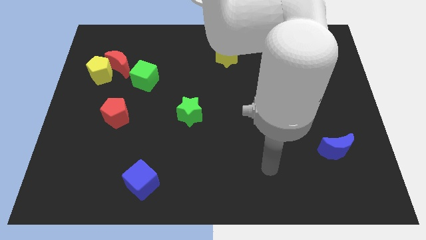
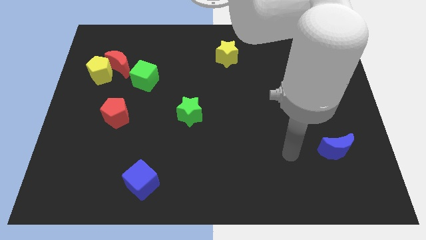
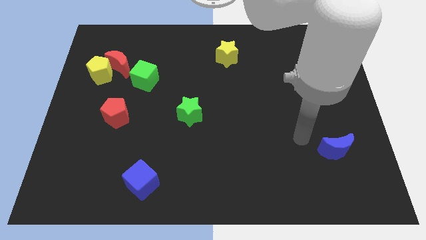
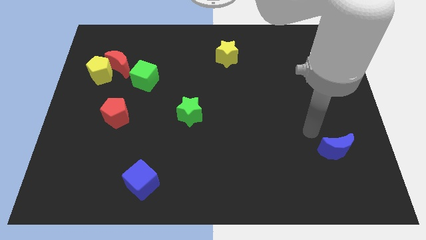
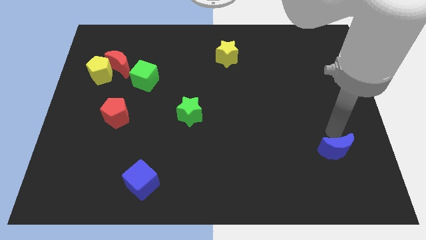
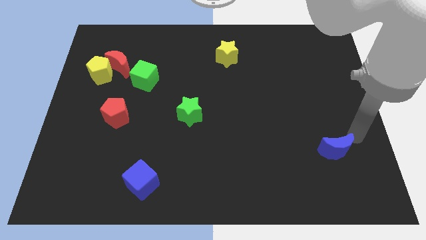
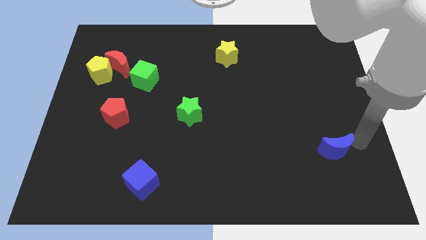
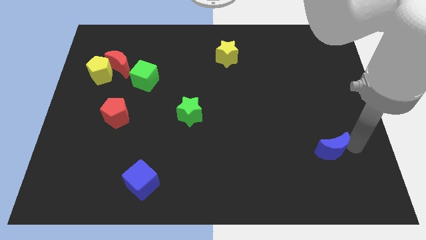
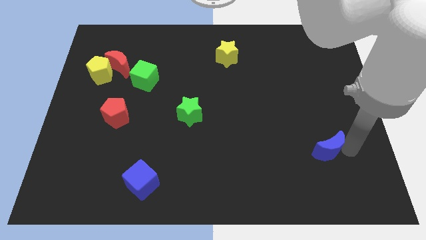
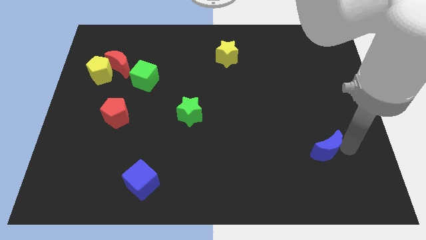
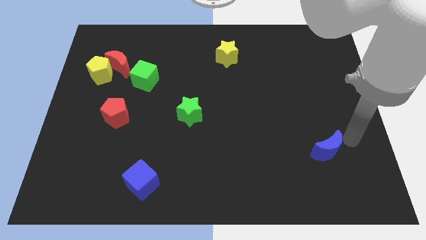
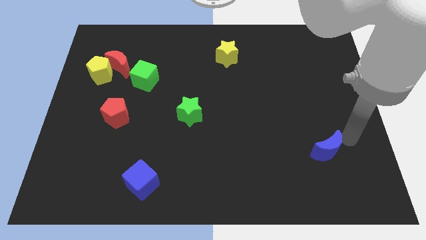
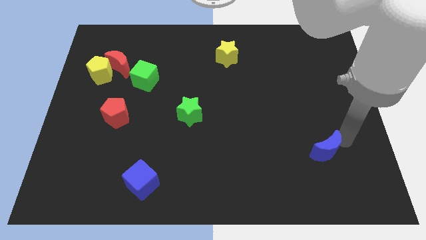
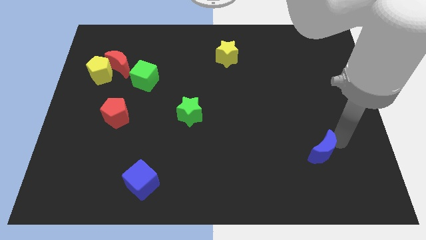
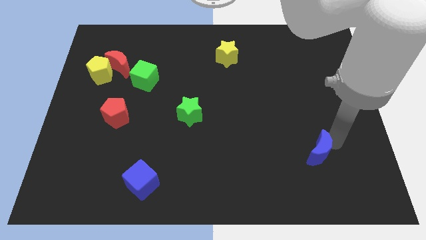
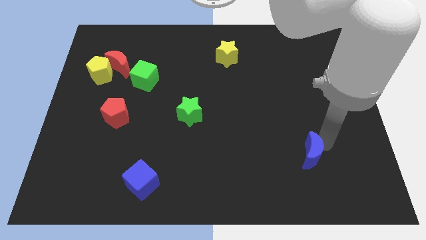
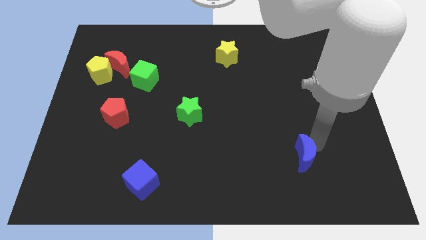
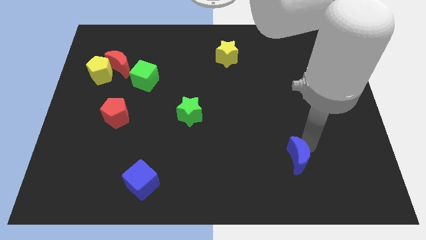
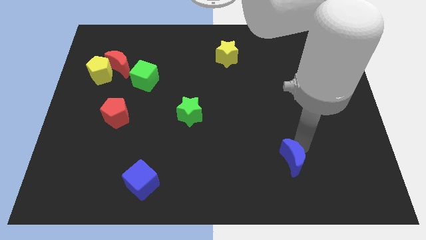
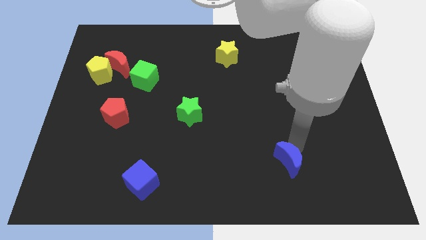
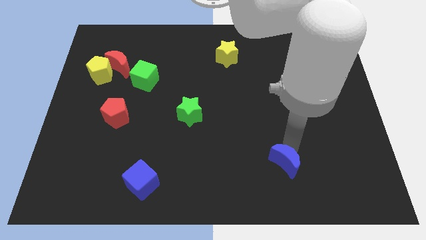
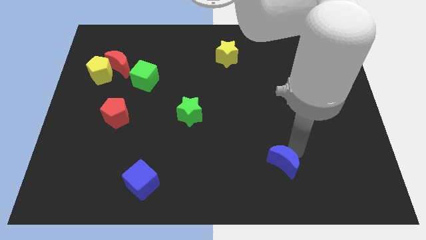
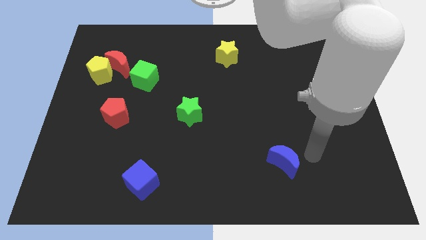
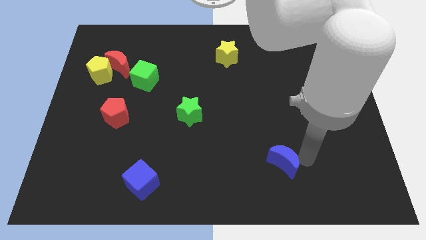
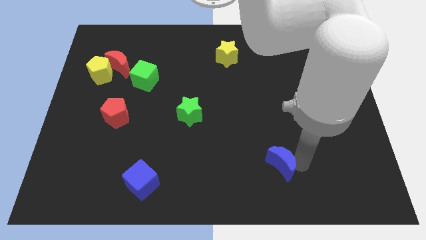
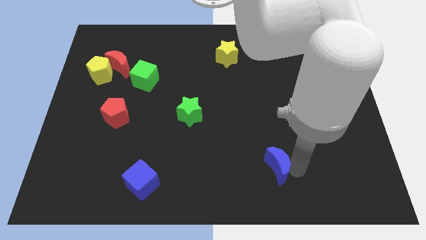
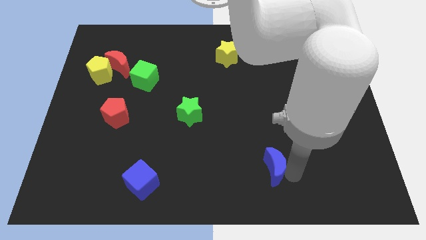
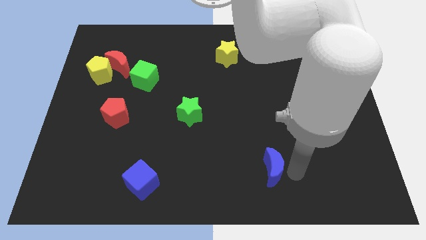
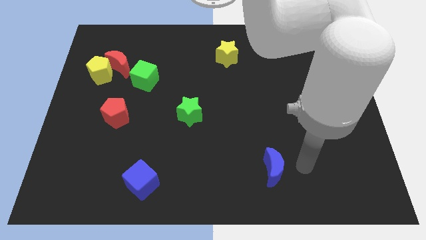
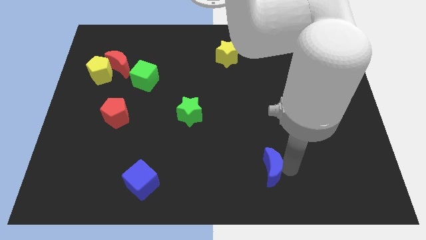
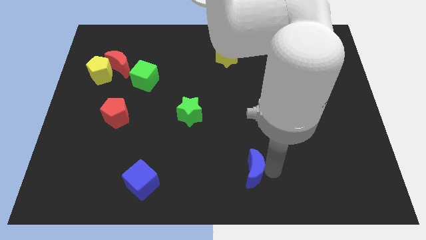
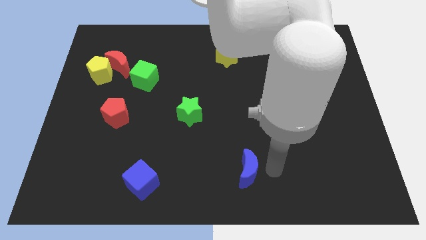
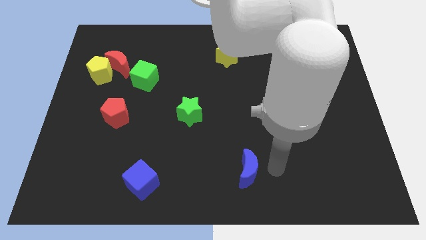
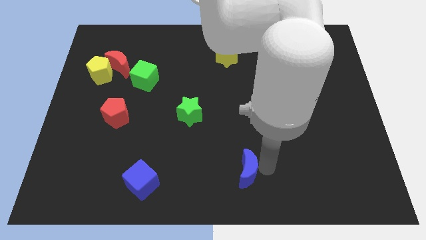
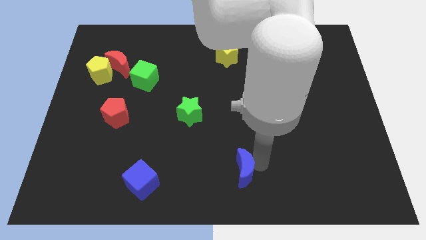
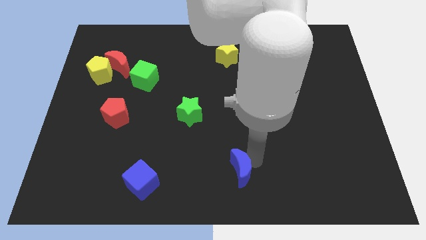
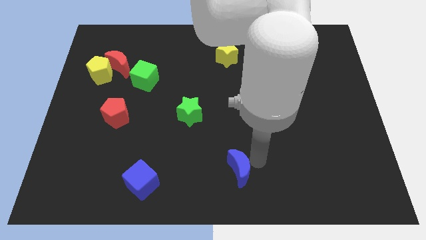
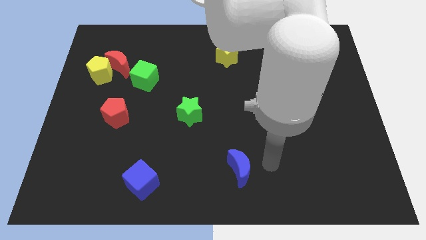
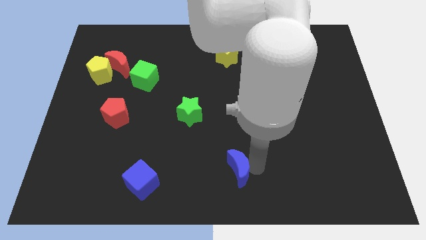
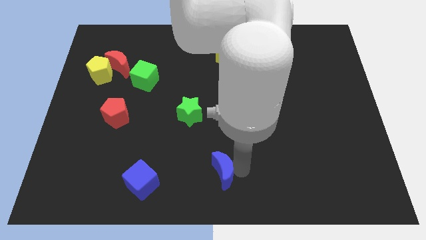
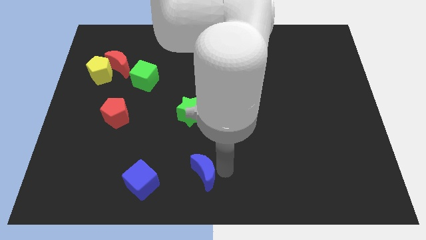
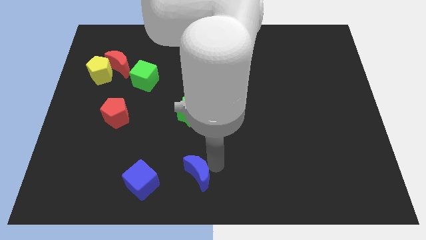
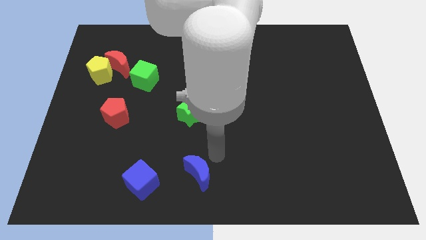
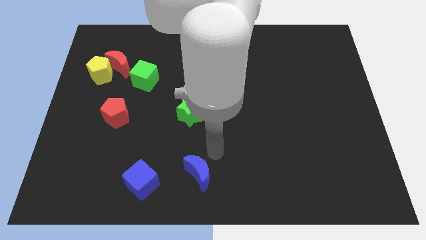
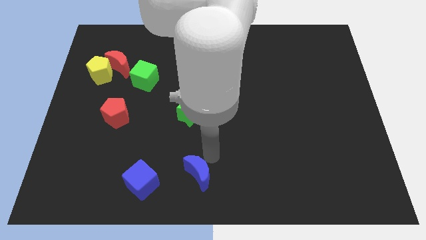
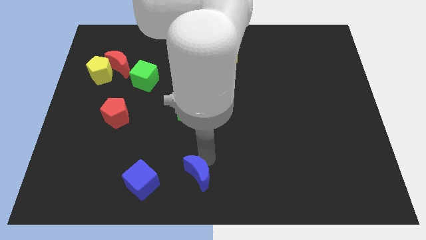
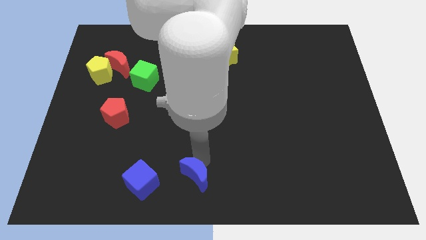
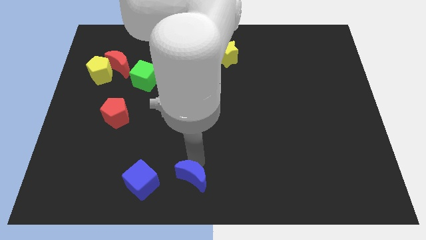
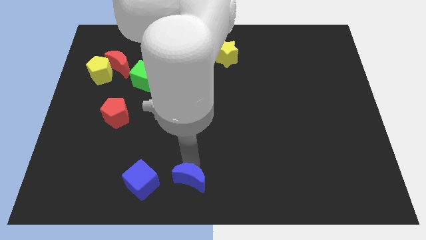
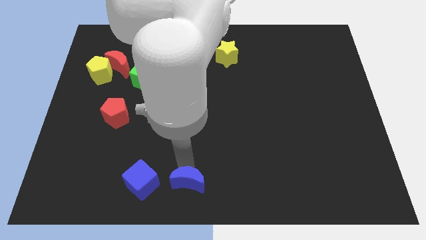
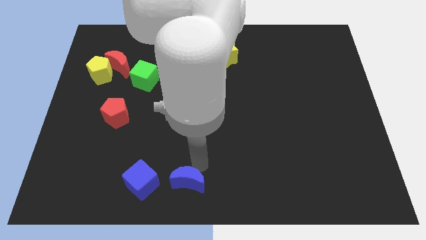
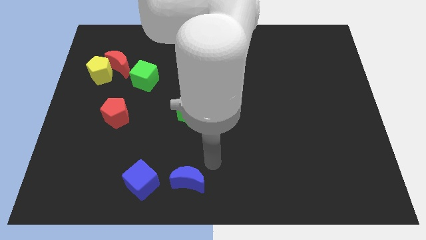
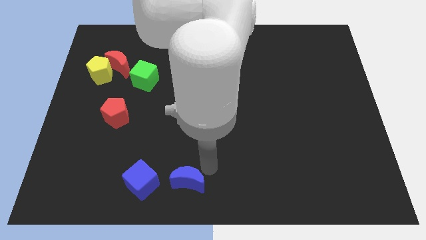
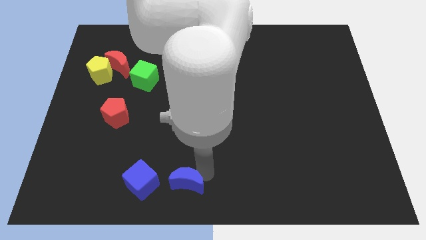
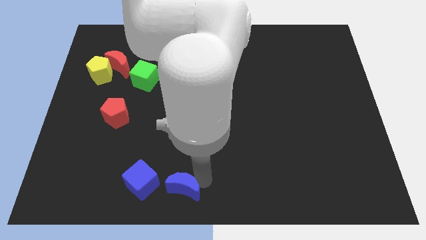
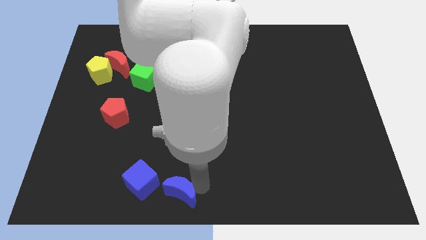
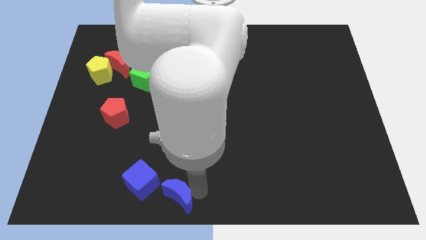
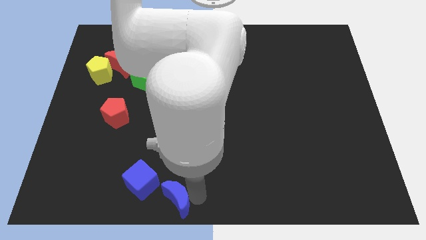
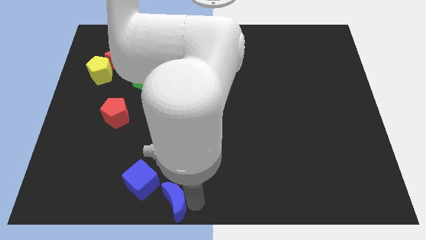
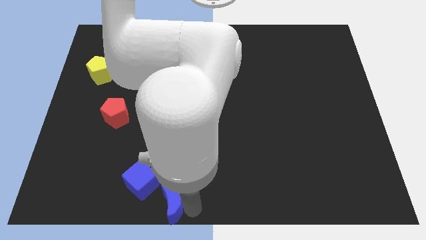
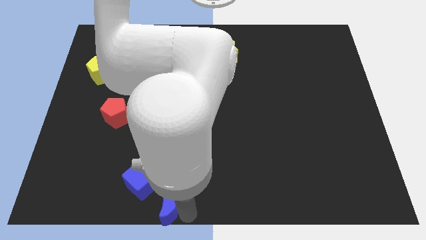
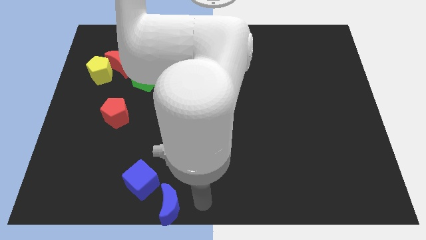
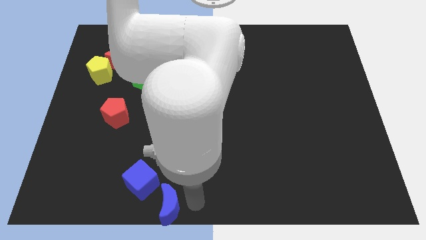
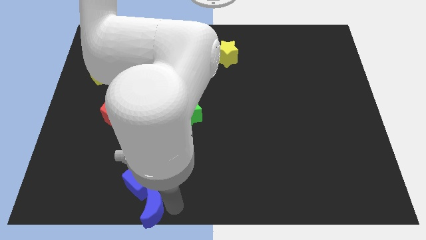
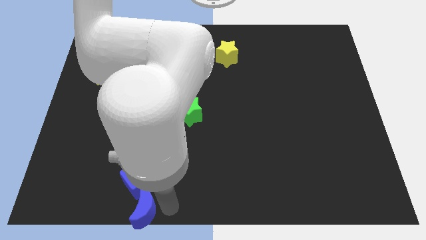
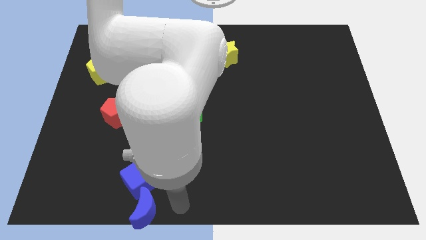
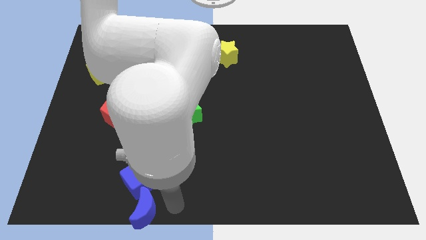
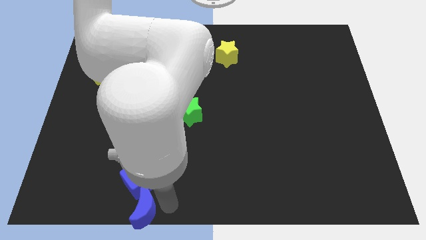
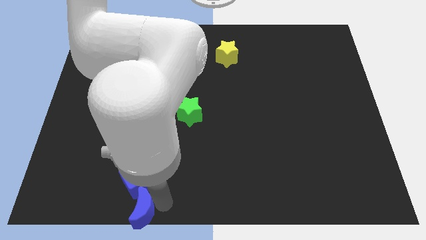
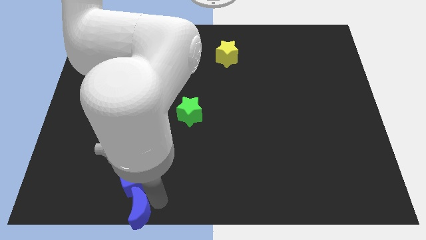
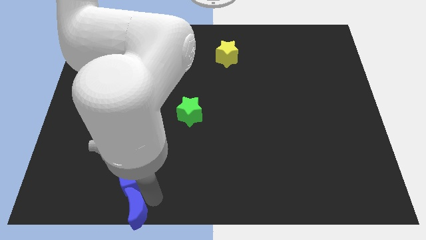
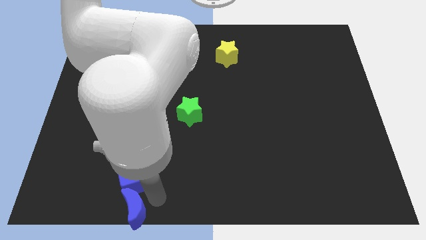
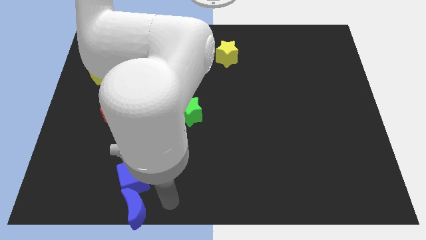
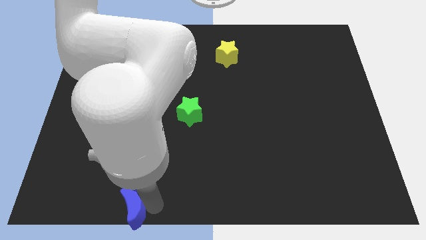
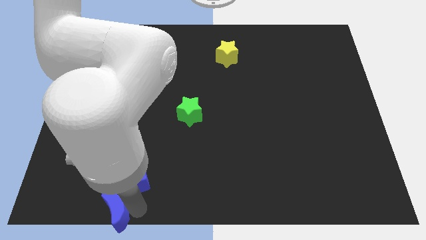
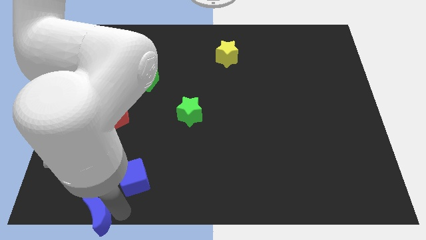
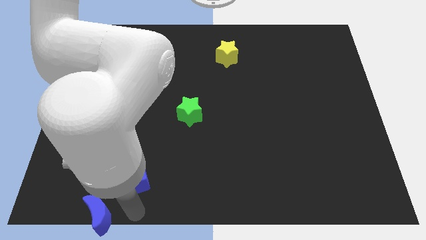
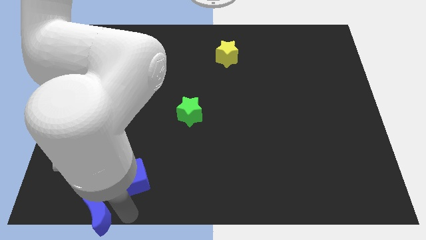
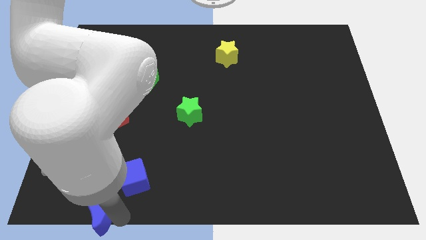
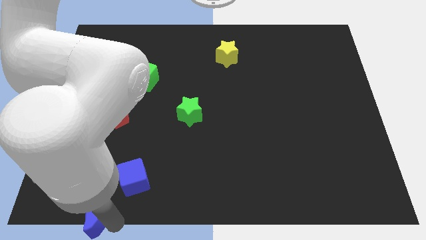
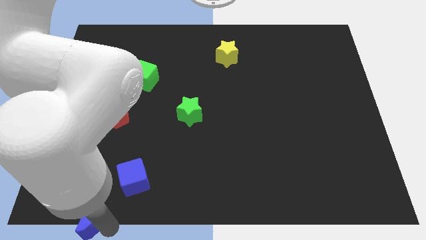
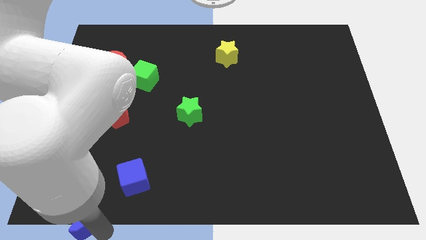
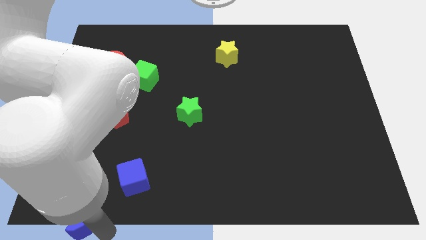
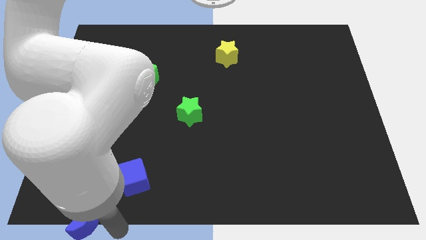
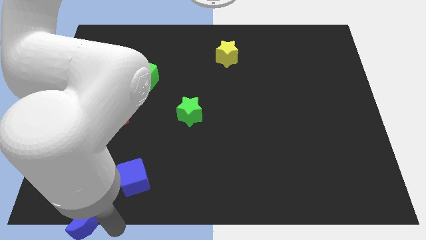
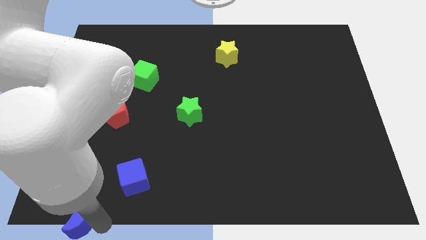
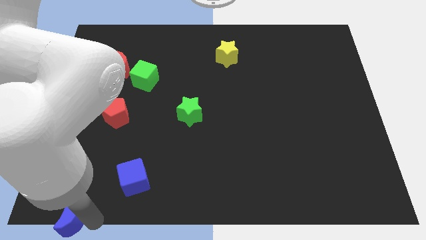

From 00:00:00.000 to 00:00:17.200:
push the blue moon to the bottom left
